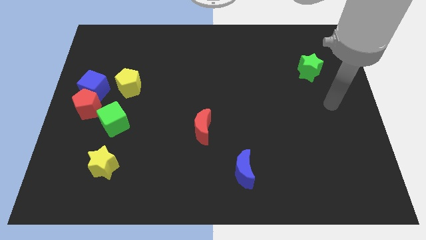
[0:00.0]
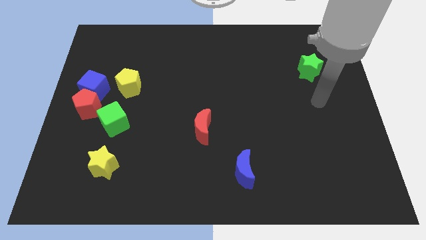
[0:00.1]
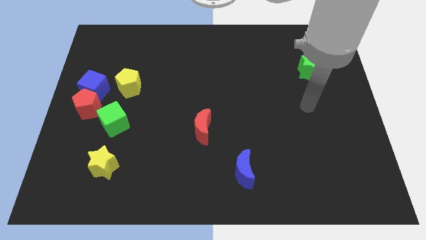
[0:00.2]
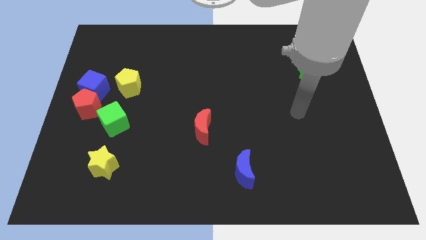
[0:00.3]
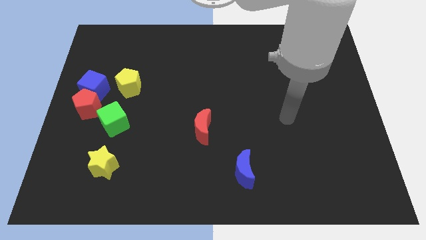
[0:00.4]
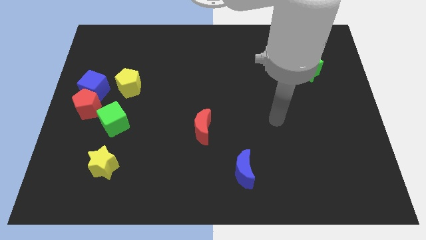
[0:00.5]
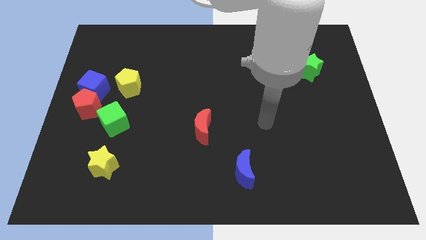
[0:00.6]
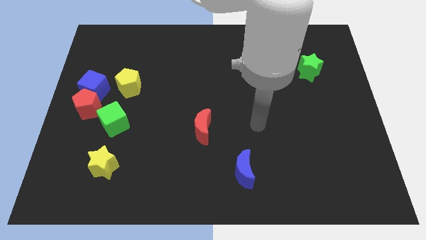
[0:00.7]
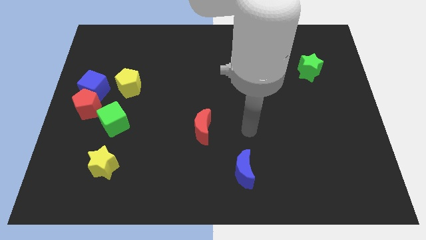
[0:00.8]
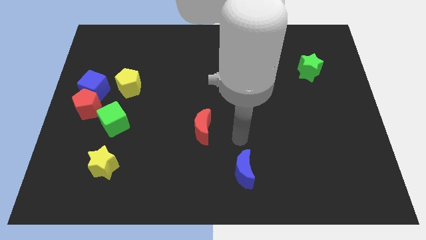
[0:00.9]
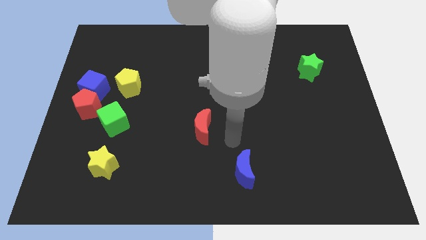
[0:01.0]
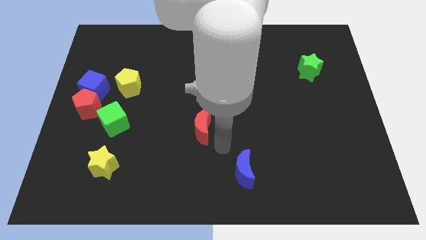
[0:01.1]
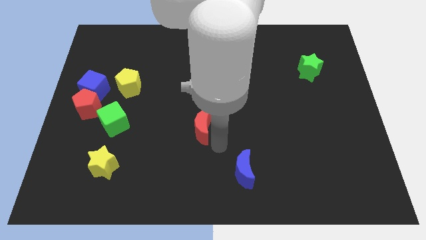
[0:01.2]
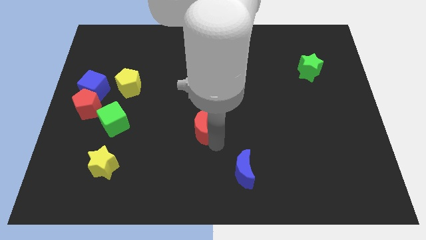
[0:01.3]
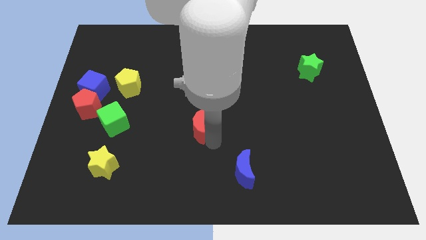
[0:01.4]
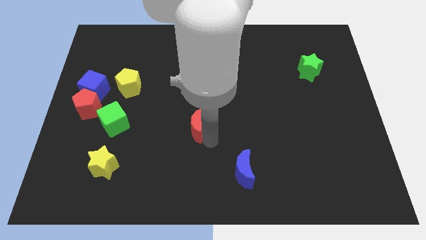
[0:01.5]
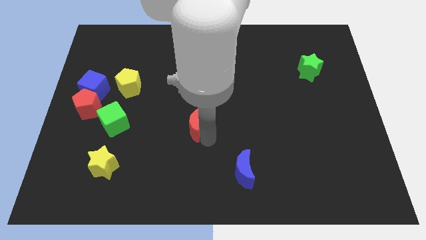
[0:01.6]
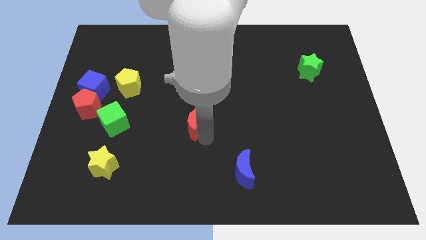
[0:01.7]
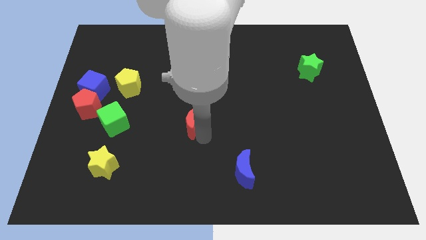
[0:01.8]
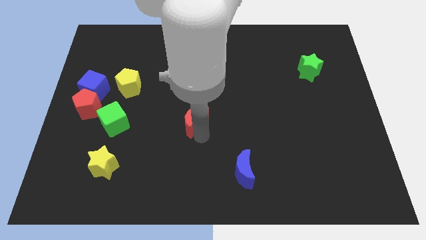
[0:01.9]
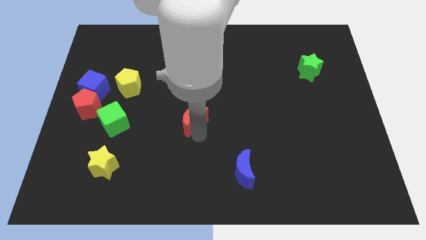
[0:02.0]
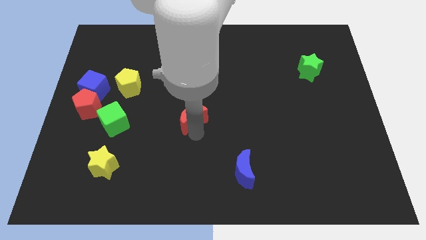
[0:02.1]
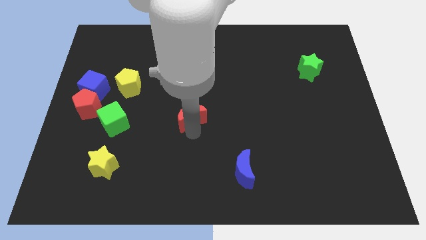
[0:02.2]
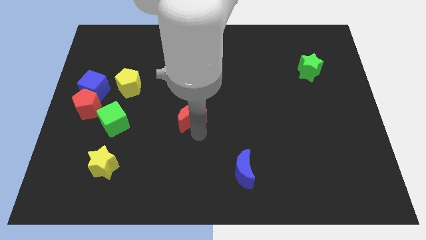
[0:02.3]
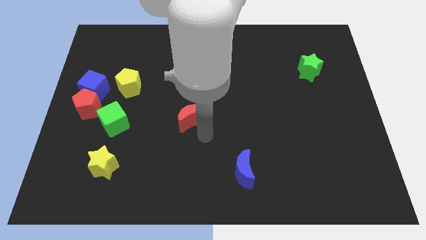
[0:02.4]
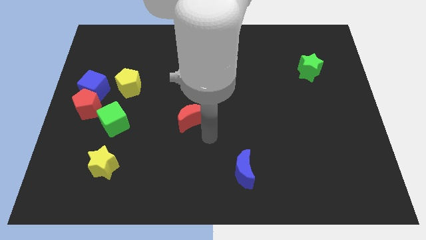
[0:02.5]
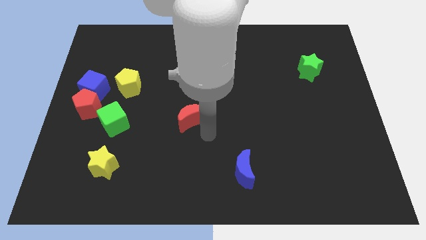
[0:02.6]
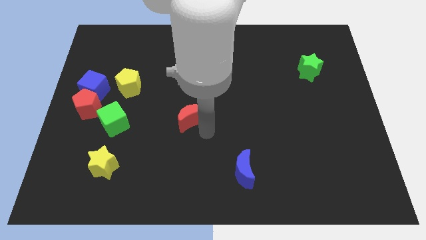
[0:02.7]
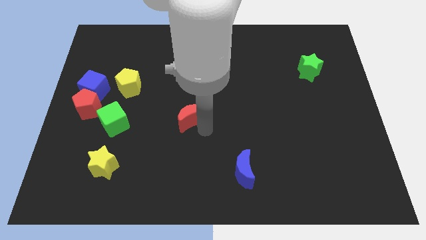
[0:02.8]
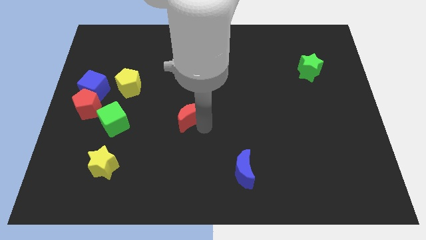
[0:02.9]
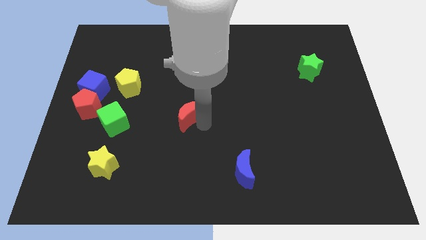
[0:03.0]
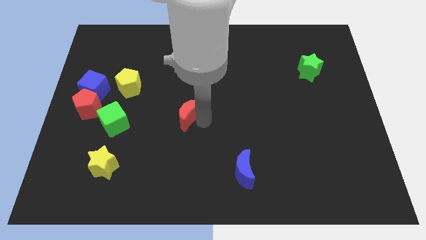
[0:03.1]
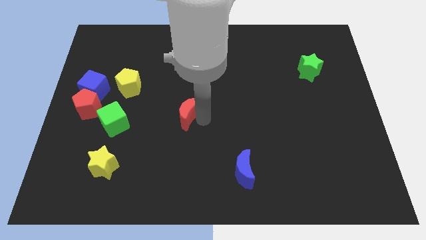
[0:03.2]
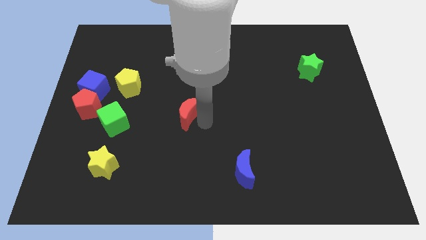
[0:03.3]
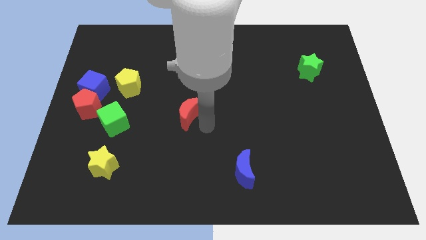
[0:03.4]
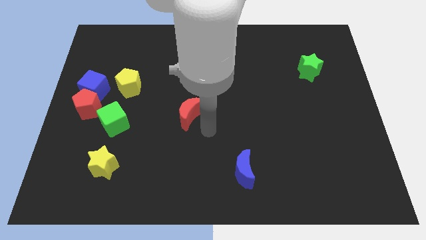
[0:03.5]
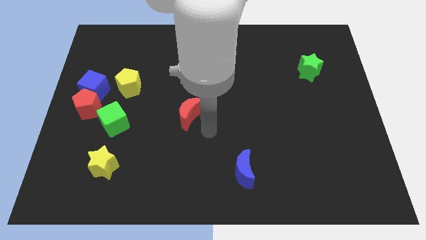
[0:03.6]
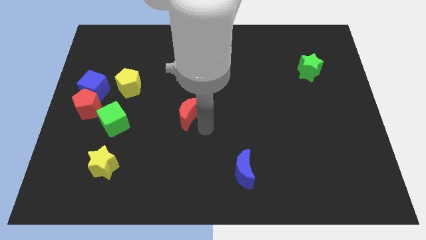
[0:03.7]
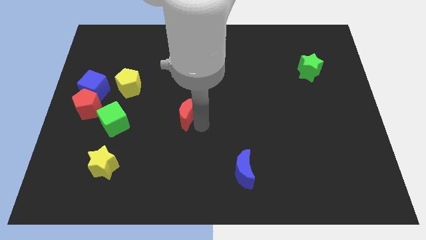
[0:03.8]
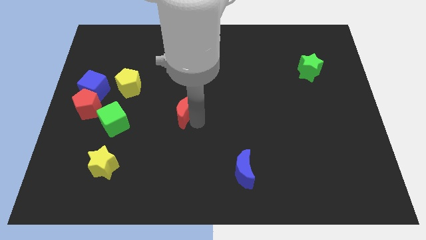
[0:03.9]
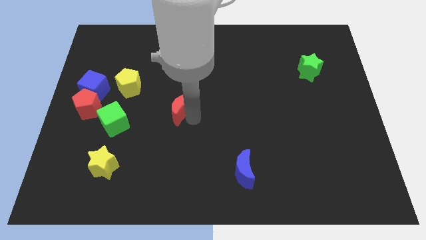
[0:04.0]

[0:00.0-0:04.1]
slightly slide the red moon upwards and to the left diagonally

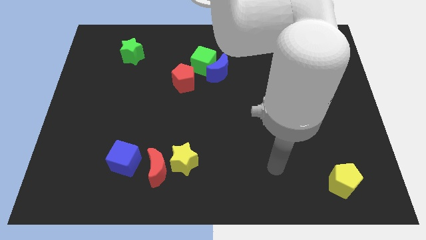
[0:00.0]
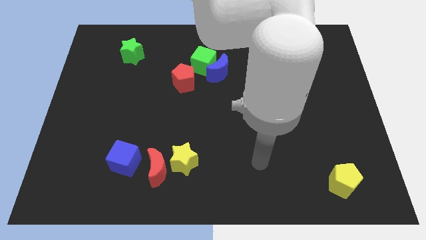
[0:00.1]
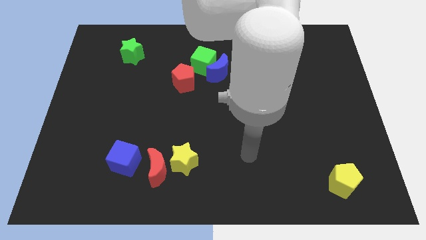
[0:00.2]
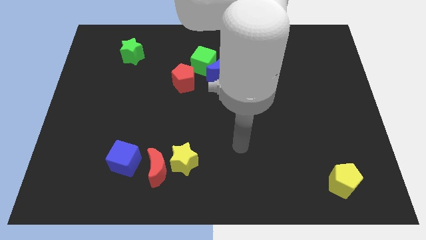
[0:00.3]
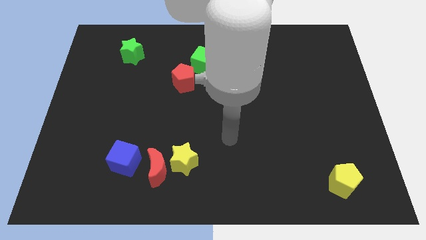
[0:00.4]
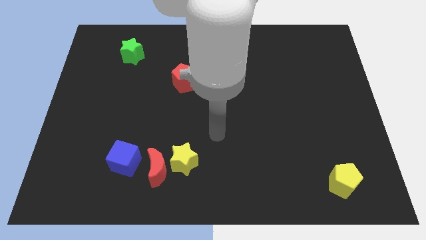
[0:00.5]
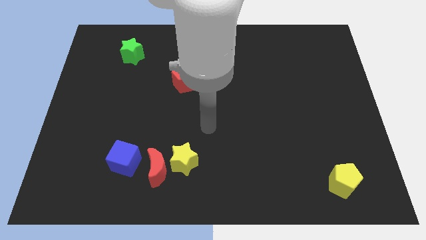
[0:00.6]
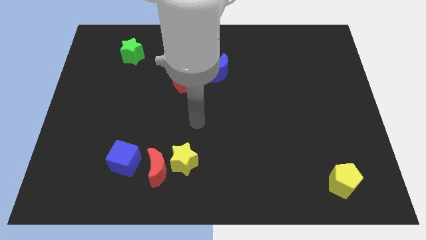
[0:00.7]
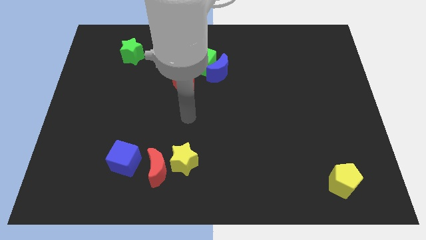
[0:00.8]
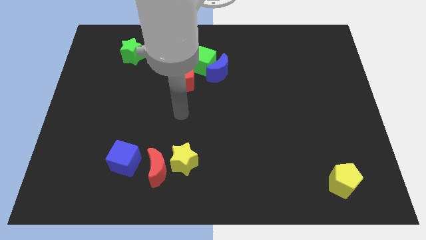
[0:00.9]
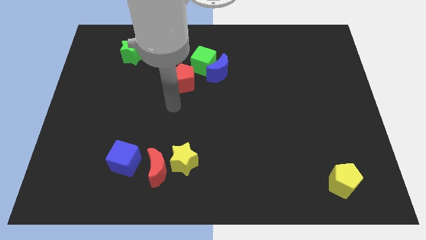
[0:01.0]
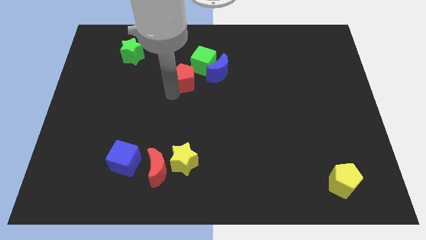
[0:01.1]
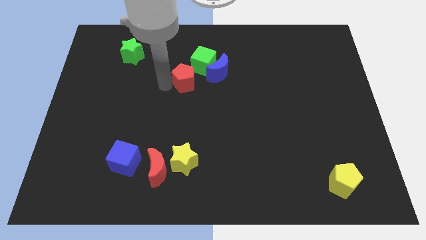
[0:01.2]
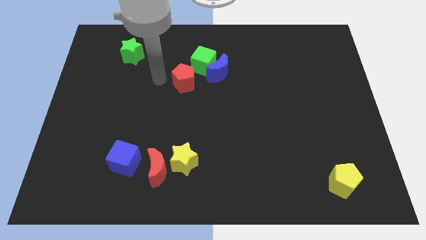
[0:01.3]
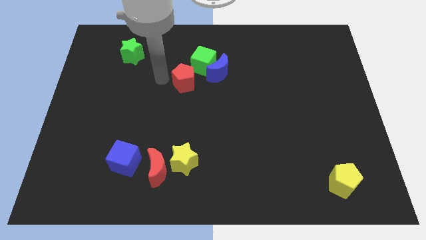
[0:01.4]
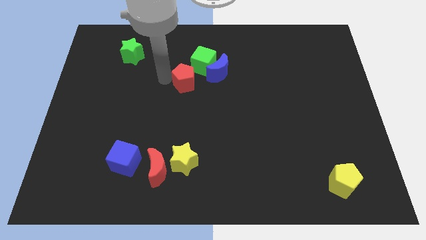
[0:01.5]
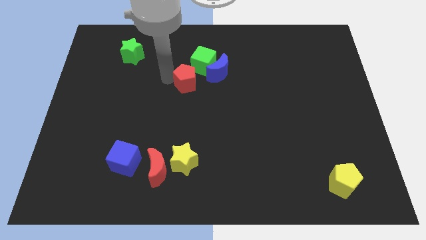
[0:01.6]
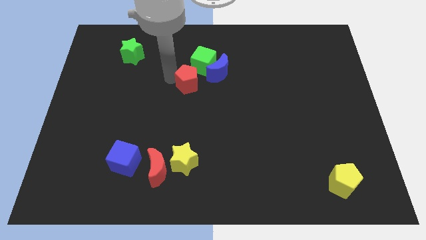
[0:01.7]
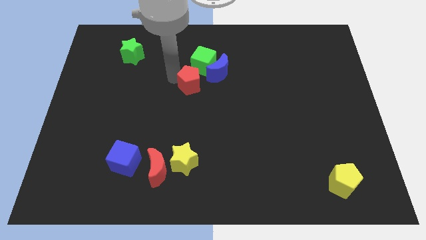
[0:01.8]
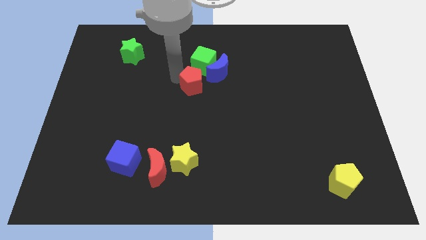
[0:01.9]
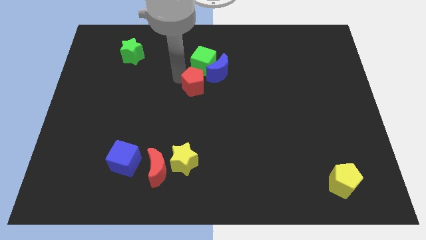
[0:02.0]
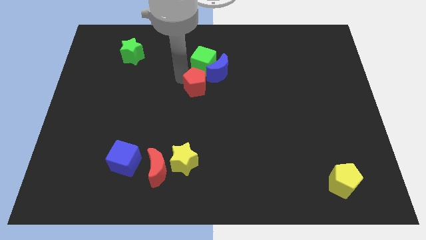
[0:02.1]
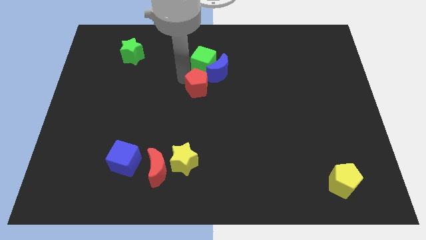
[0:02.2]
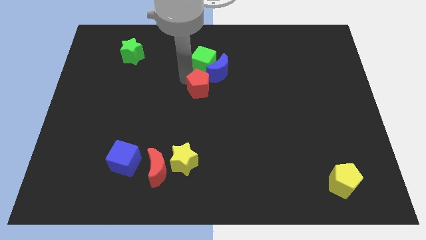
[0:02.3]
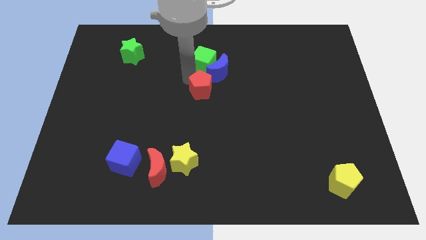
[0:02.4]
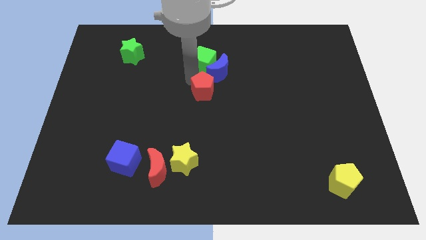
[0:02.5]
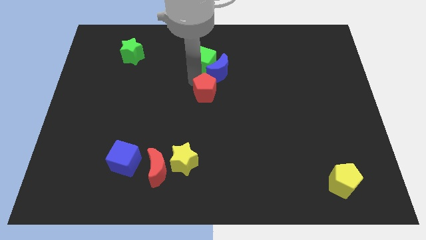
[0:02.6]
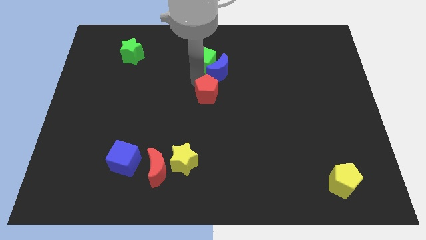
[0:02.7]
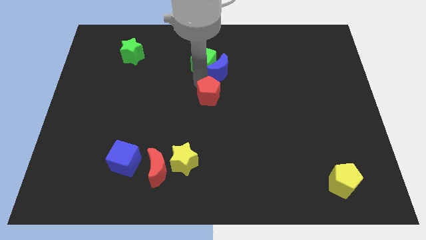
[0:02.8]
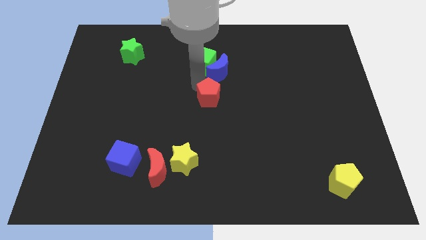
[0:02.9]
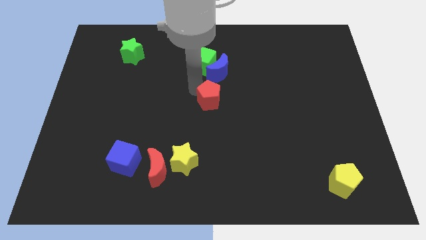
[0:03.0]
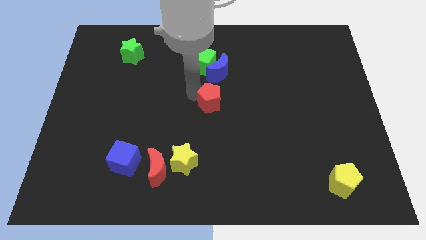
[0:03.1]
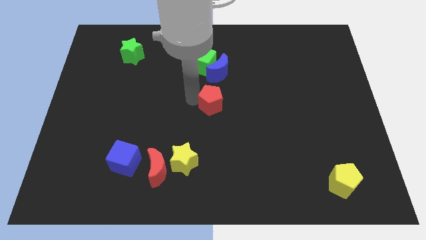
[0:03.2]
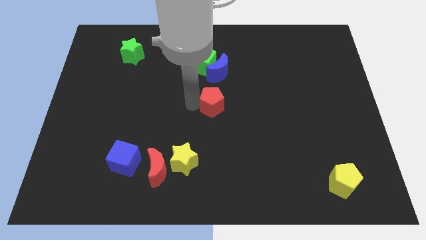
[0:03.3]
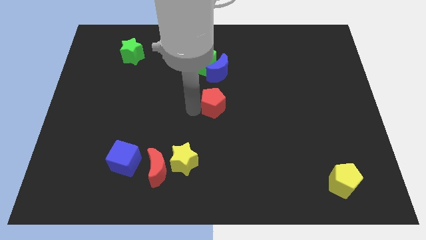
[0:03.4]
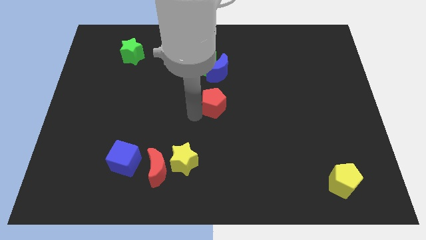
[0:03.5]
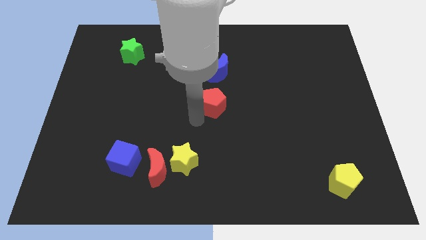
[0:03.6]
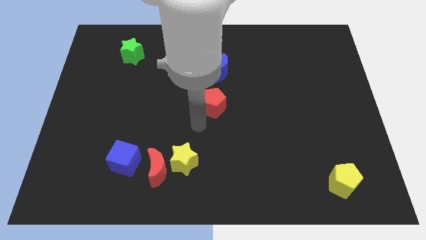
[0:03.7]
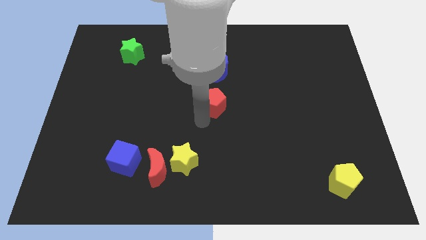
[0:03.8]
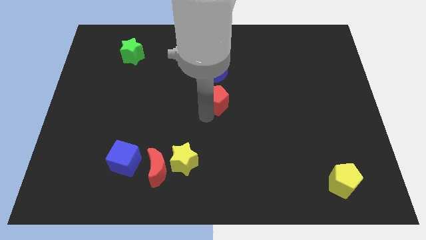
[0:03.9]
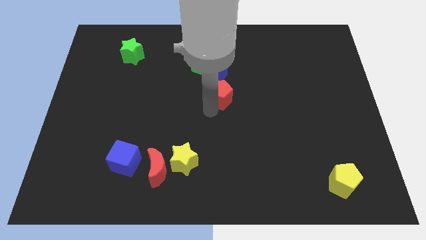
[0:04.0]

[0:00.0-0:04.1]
slightly slide the red pentagon right
